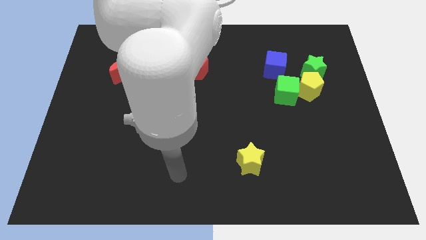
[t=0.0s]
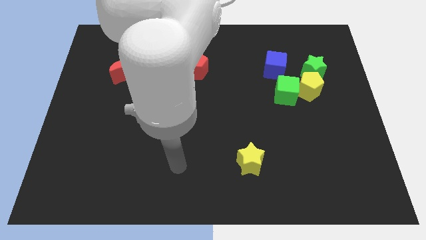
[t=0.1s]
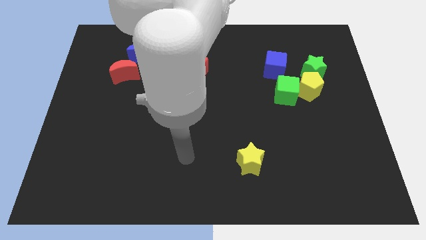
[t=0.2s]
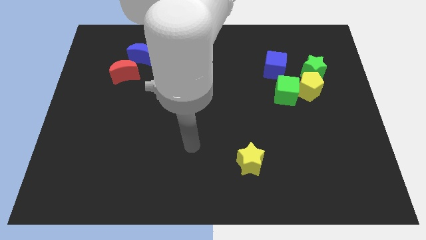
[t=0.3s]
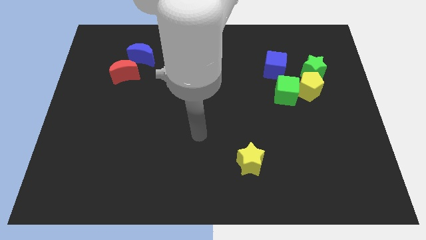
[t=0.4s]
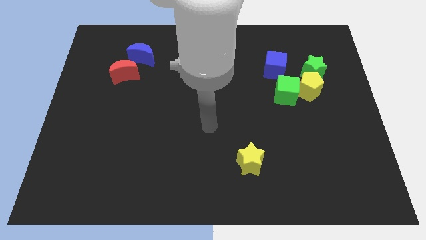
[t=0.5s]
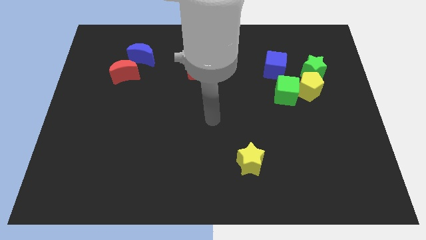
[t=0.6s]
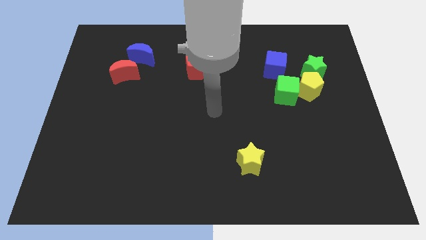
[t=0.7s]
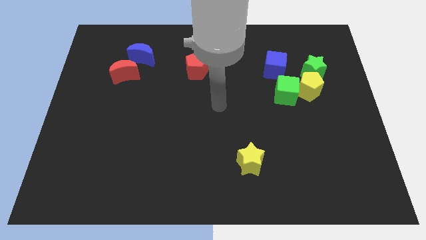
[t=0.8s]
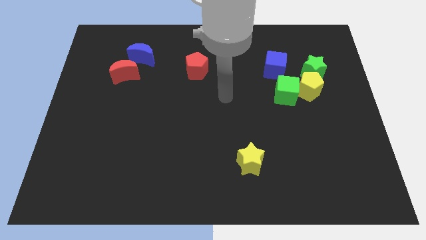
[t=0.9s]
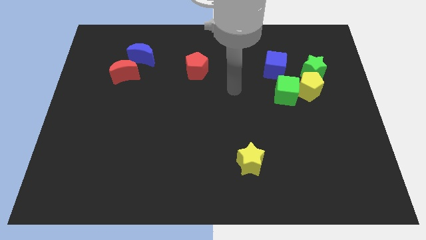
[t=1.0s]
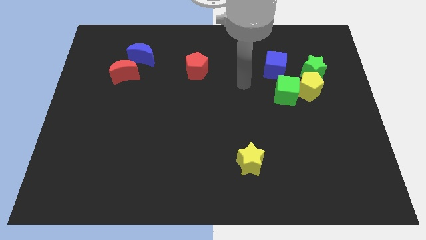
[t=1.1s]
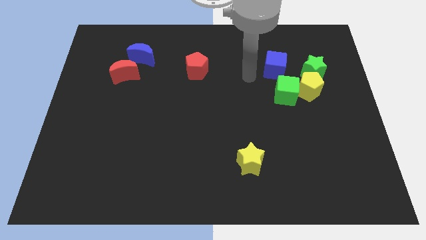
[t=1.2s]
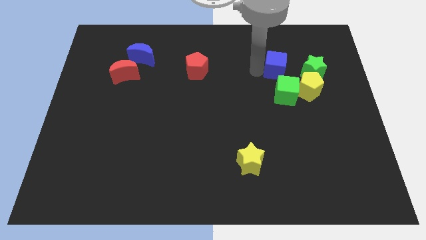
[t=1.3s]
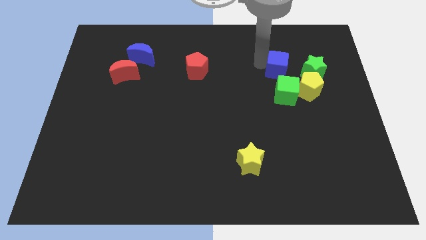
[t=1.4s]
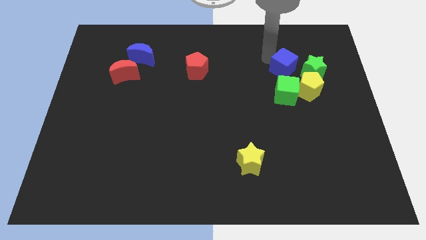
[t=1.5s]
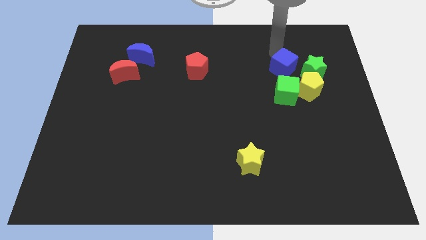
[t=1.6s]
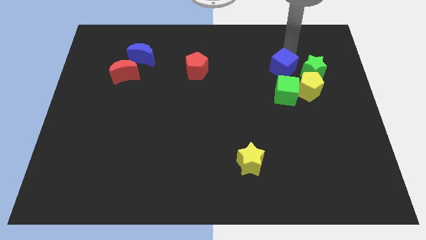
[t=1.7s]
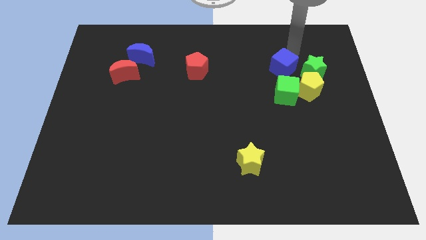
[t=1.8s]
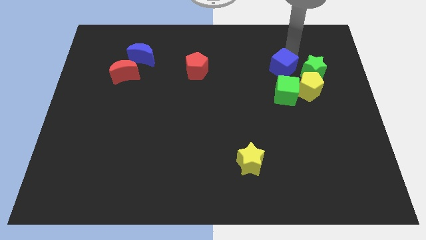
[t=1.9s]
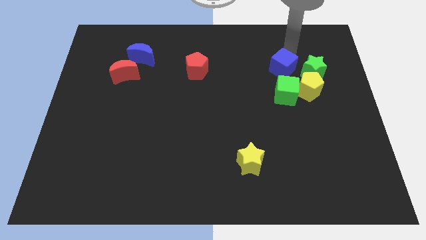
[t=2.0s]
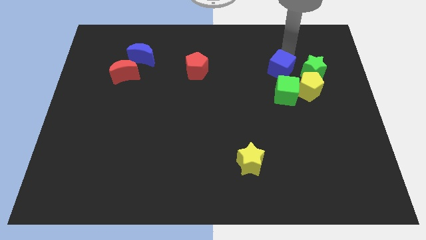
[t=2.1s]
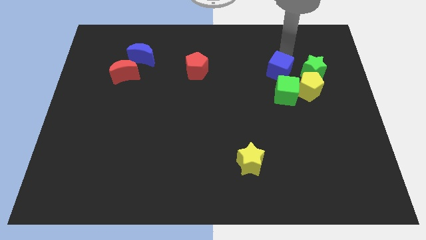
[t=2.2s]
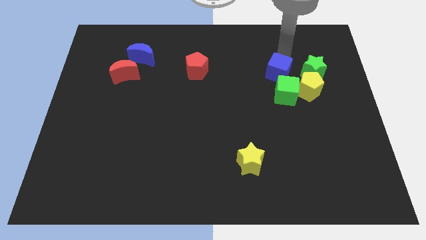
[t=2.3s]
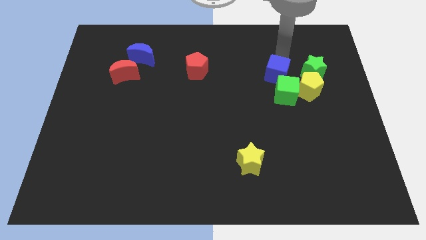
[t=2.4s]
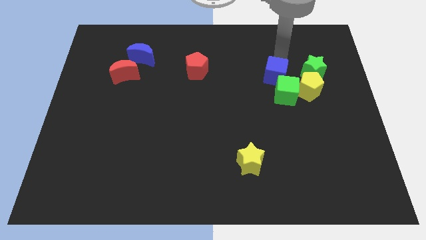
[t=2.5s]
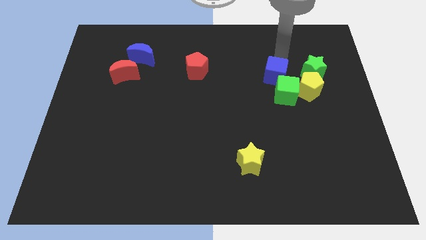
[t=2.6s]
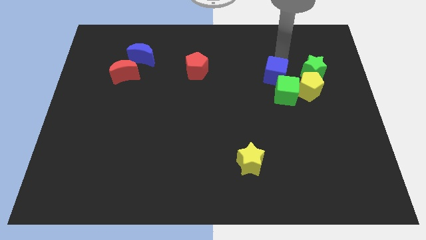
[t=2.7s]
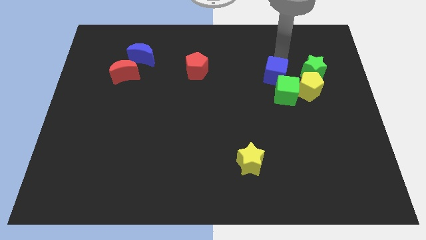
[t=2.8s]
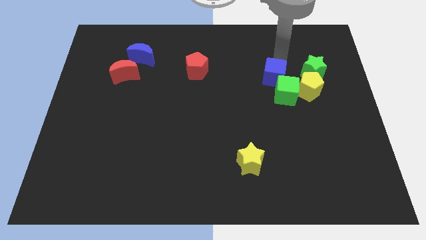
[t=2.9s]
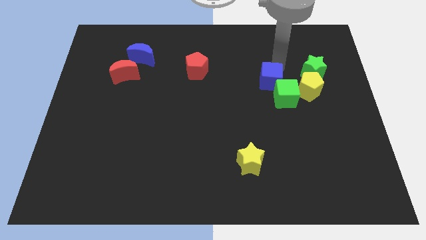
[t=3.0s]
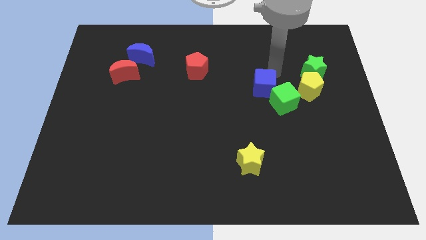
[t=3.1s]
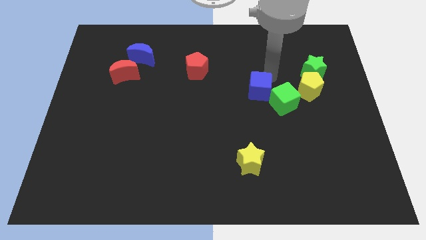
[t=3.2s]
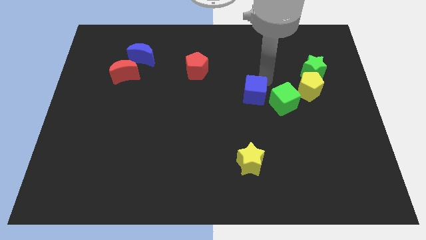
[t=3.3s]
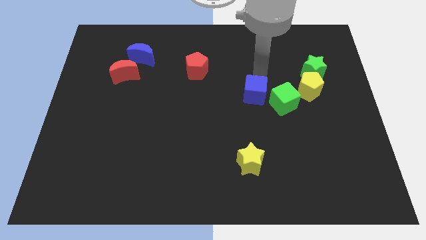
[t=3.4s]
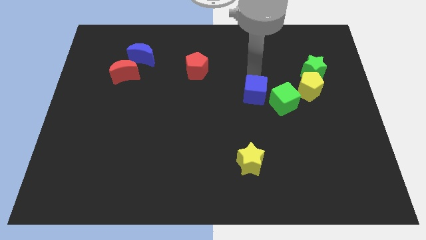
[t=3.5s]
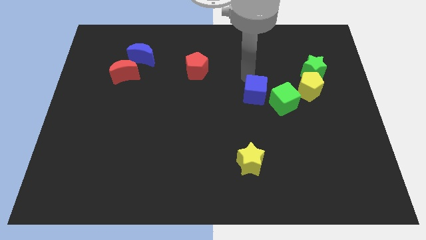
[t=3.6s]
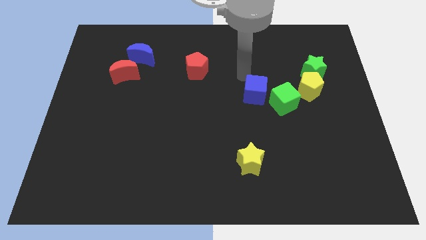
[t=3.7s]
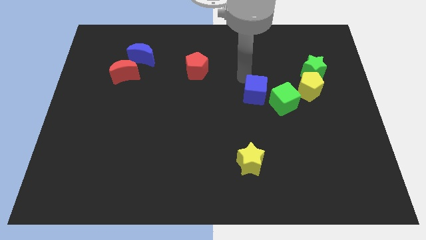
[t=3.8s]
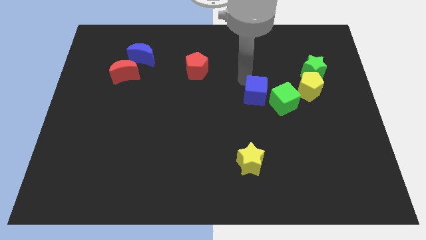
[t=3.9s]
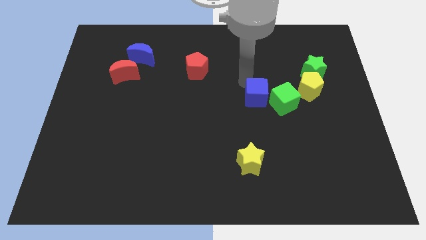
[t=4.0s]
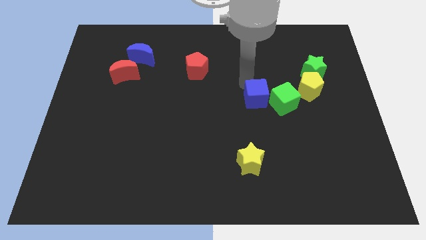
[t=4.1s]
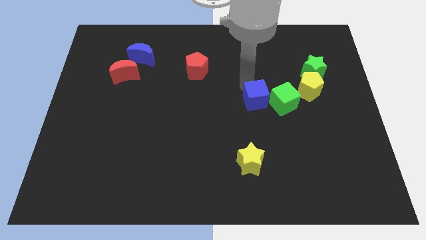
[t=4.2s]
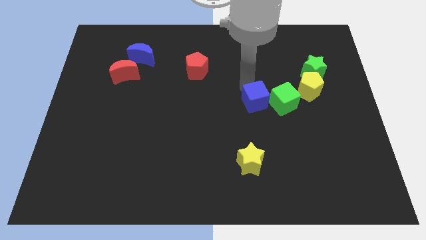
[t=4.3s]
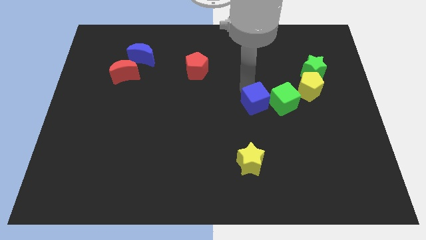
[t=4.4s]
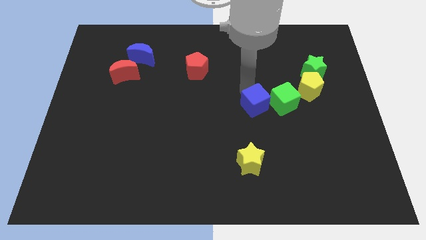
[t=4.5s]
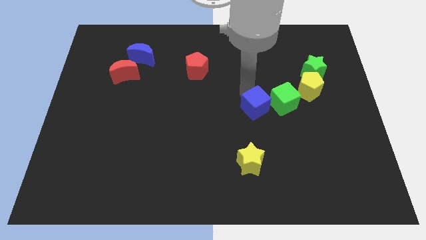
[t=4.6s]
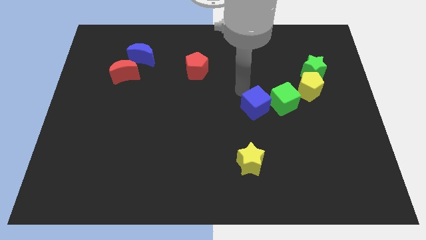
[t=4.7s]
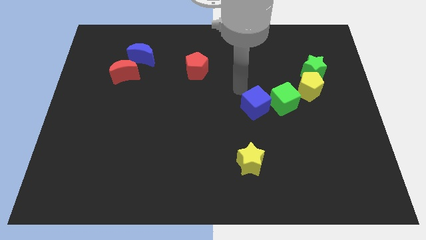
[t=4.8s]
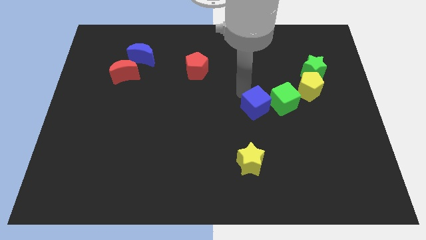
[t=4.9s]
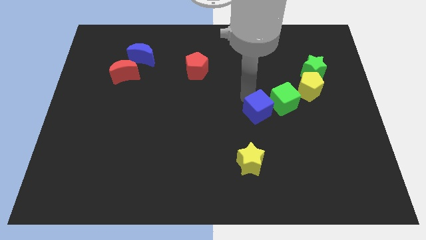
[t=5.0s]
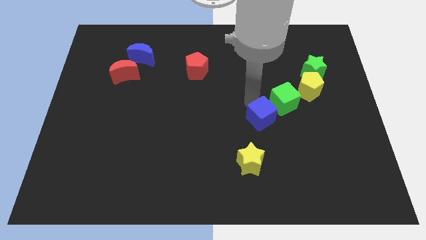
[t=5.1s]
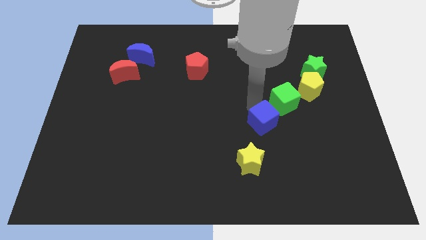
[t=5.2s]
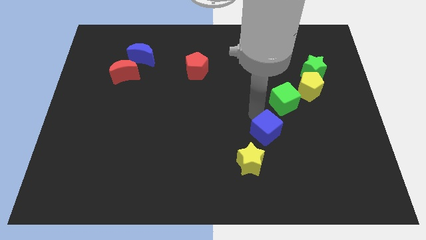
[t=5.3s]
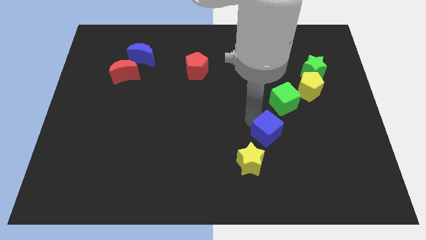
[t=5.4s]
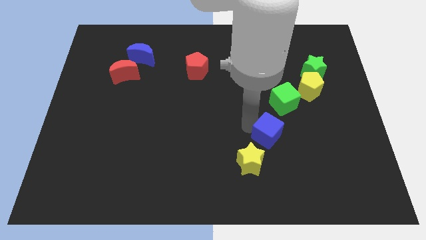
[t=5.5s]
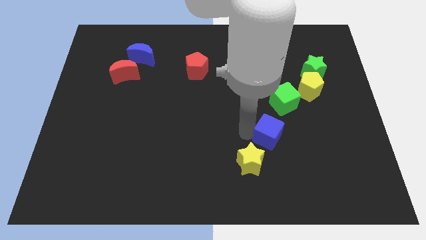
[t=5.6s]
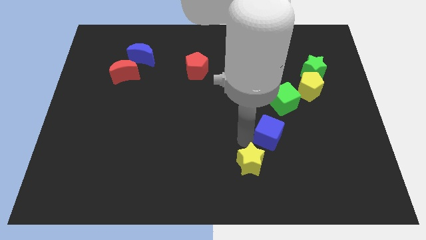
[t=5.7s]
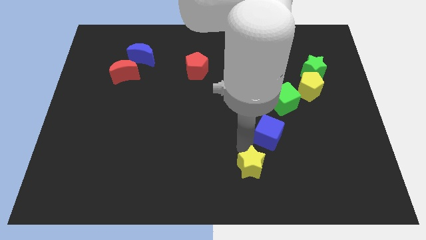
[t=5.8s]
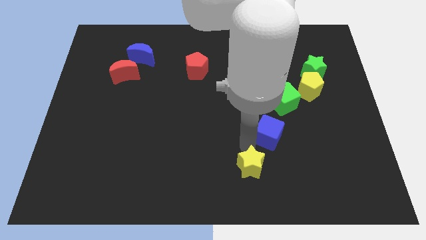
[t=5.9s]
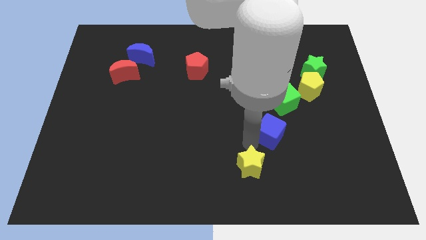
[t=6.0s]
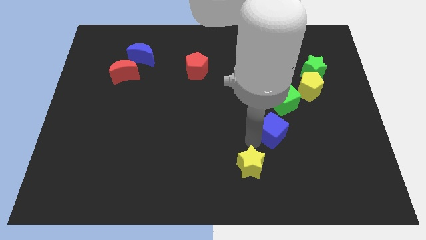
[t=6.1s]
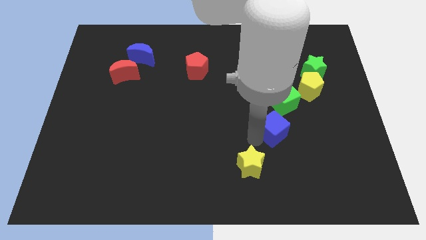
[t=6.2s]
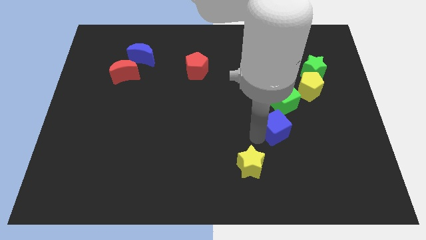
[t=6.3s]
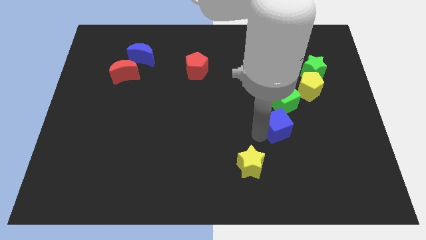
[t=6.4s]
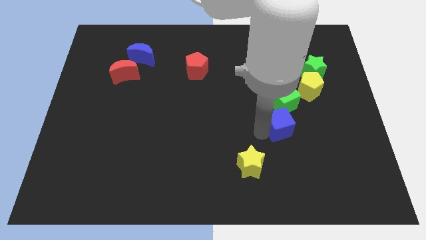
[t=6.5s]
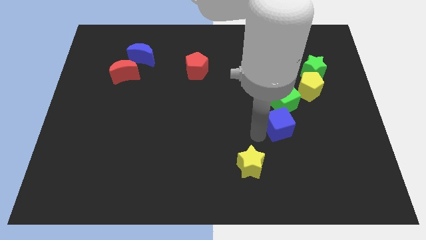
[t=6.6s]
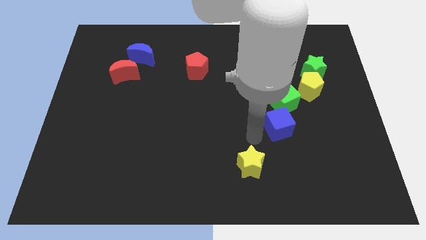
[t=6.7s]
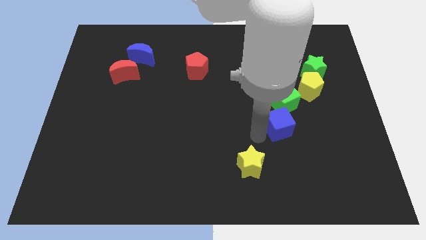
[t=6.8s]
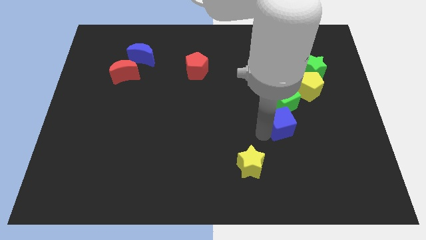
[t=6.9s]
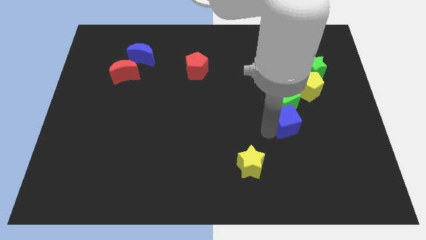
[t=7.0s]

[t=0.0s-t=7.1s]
move the blue cube to the bottom right side of the green cube

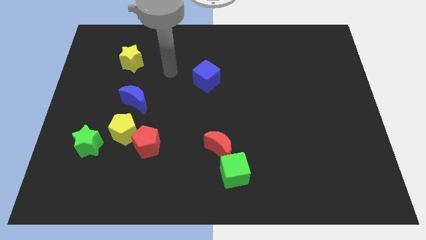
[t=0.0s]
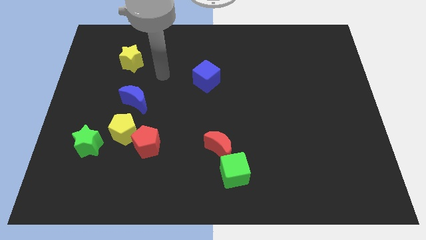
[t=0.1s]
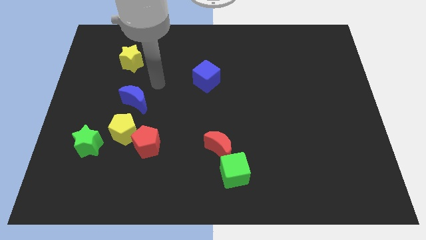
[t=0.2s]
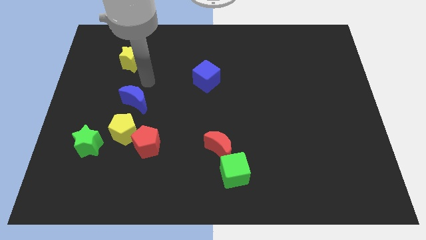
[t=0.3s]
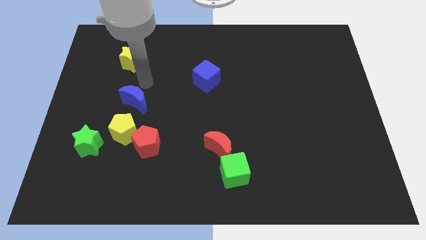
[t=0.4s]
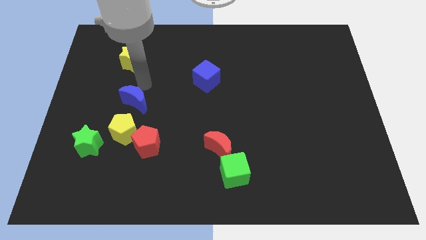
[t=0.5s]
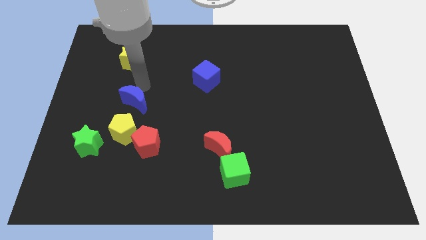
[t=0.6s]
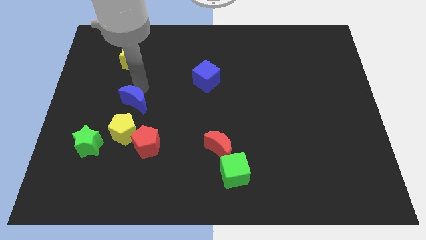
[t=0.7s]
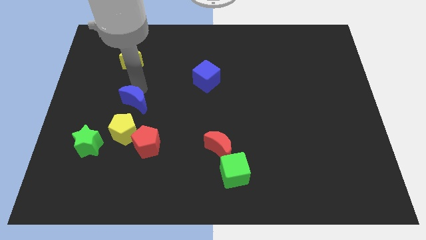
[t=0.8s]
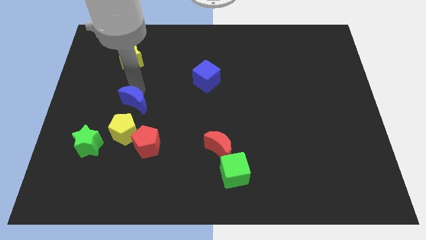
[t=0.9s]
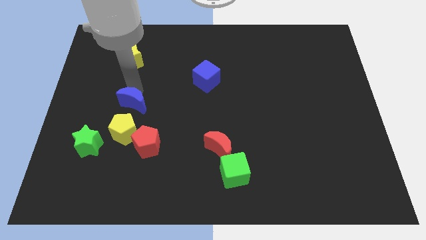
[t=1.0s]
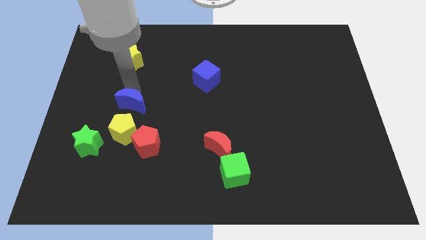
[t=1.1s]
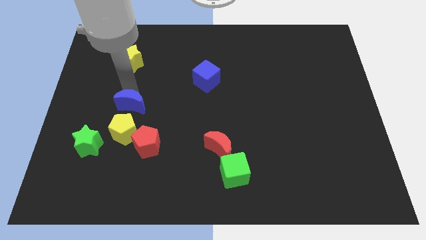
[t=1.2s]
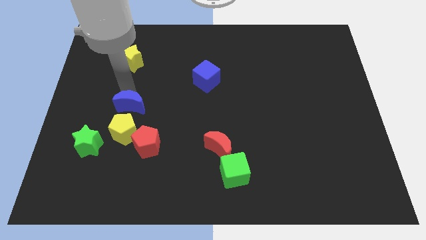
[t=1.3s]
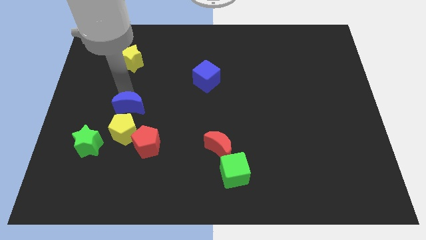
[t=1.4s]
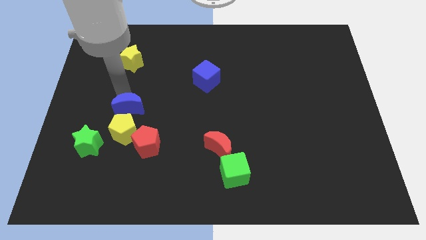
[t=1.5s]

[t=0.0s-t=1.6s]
move the blue moon to the top right of the green star
